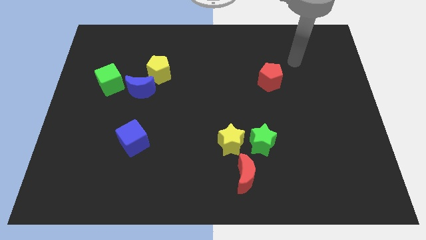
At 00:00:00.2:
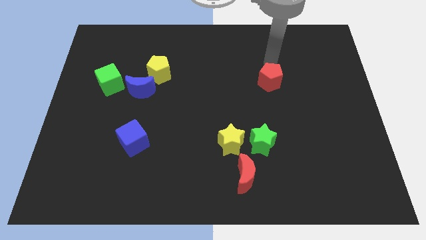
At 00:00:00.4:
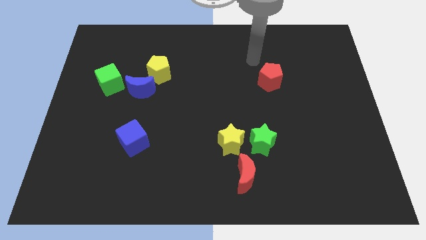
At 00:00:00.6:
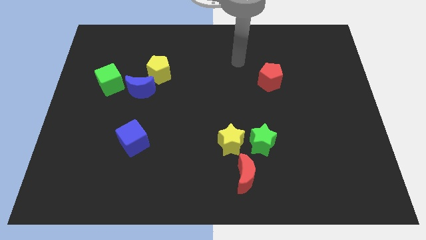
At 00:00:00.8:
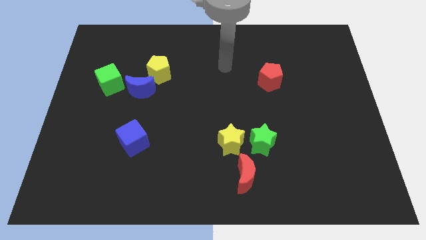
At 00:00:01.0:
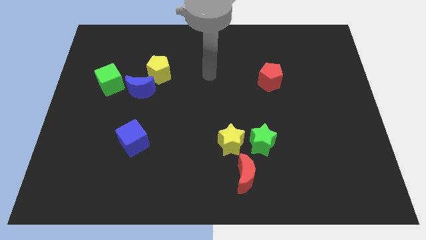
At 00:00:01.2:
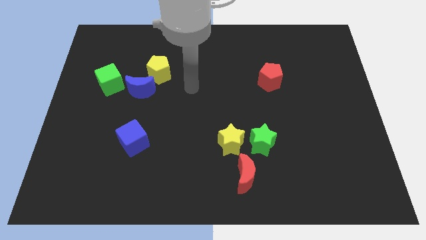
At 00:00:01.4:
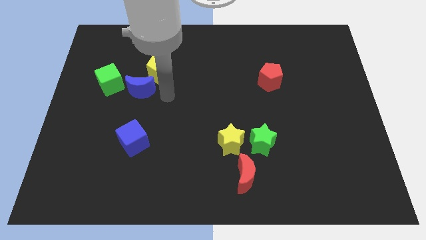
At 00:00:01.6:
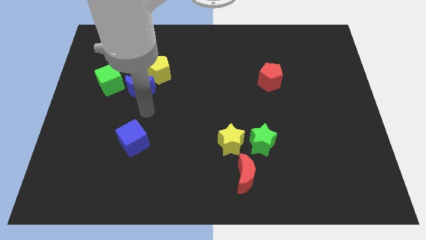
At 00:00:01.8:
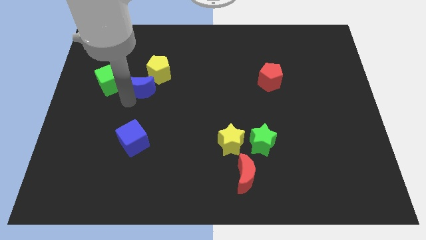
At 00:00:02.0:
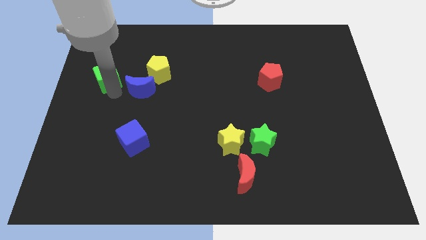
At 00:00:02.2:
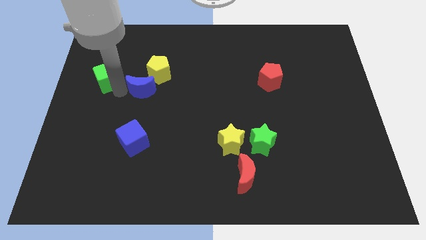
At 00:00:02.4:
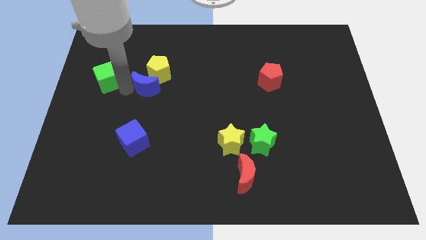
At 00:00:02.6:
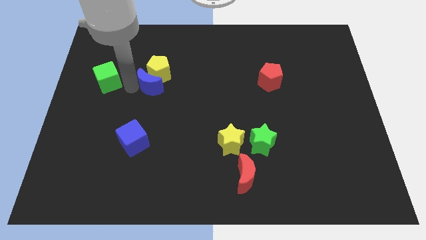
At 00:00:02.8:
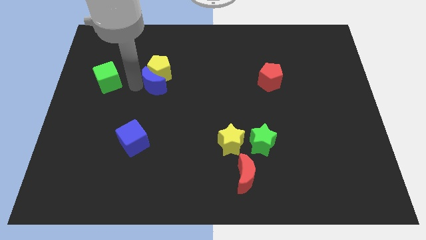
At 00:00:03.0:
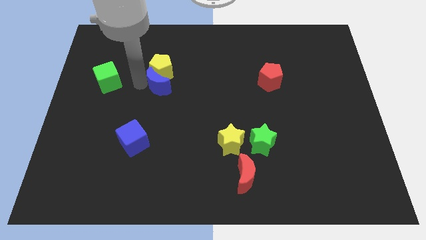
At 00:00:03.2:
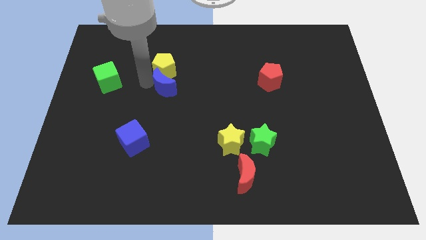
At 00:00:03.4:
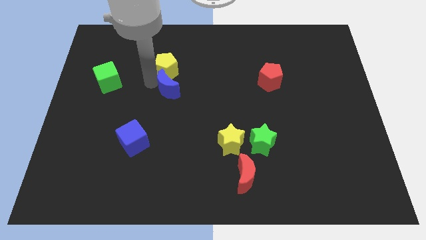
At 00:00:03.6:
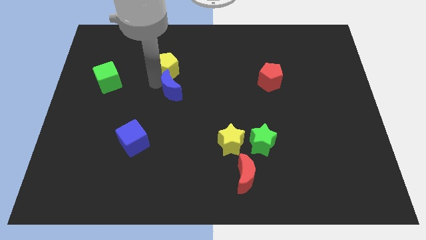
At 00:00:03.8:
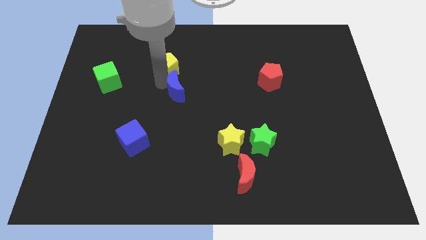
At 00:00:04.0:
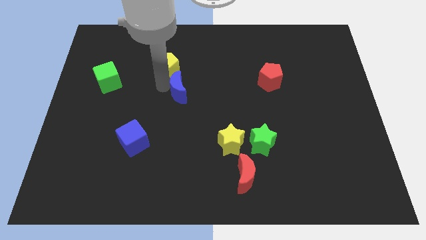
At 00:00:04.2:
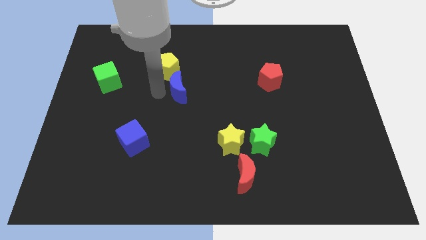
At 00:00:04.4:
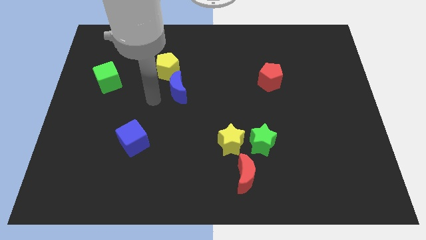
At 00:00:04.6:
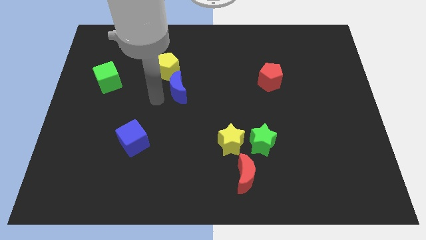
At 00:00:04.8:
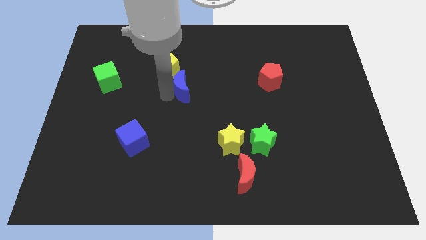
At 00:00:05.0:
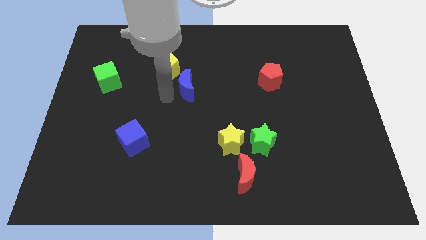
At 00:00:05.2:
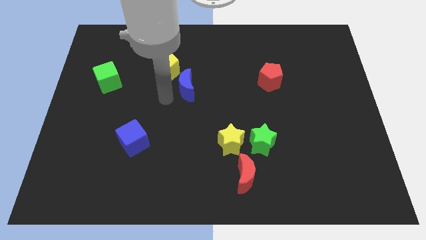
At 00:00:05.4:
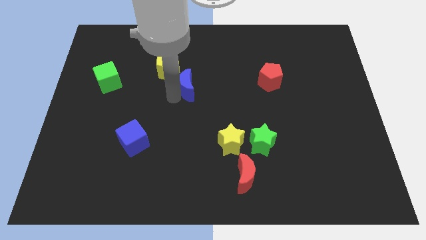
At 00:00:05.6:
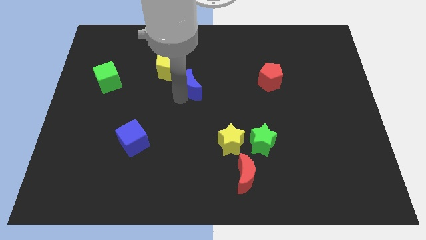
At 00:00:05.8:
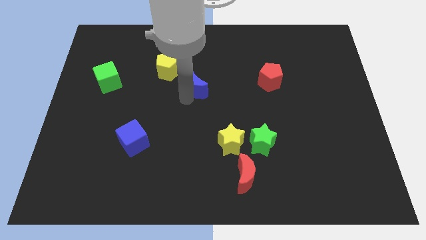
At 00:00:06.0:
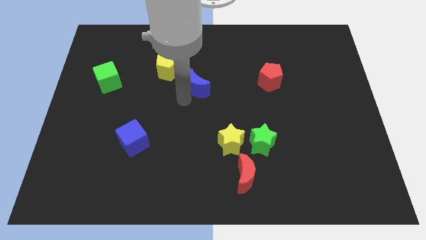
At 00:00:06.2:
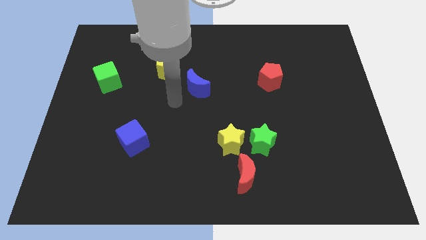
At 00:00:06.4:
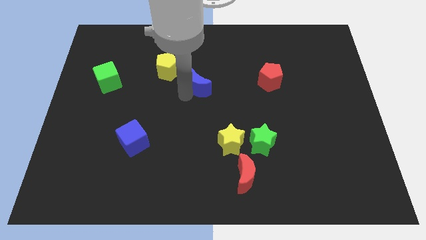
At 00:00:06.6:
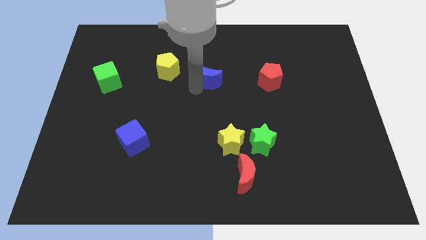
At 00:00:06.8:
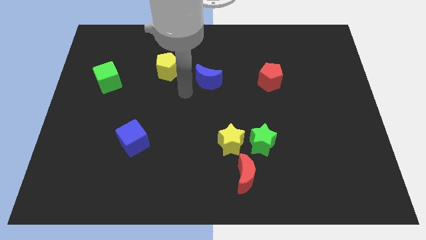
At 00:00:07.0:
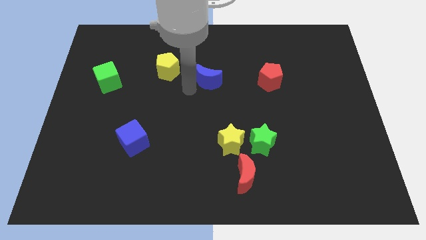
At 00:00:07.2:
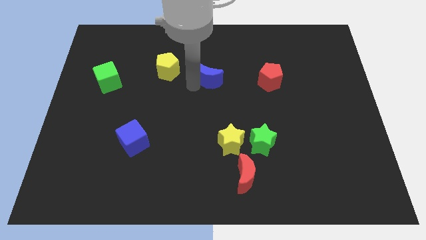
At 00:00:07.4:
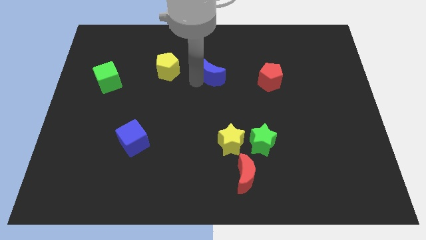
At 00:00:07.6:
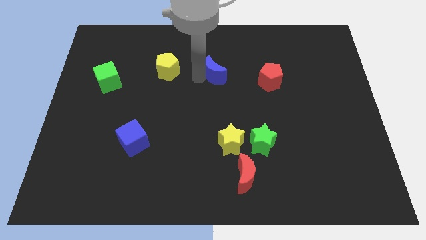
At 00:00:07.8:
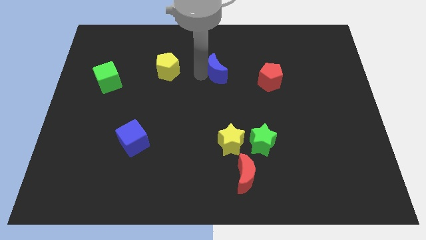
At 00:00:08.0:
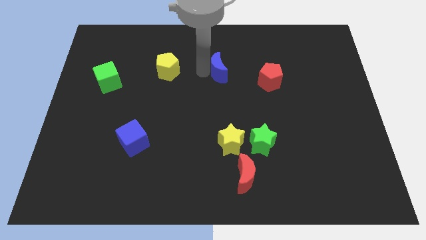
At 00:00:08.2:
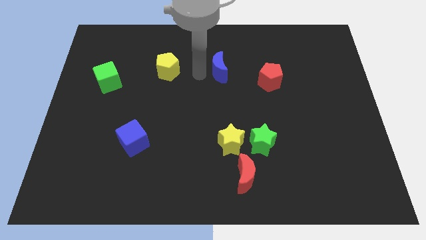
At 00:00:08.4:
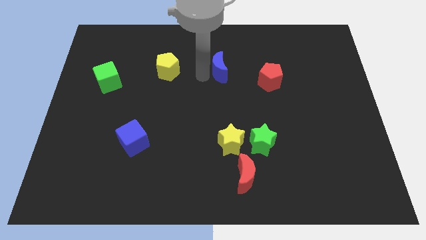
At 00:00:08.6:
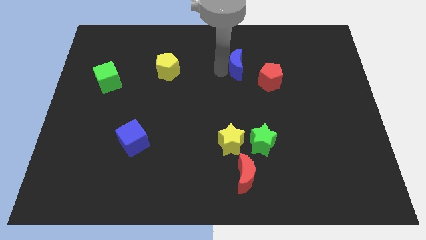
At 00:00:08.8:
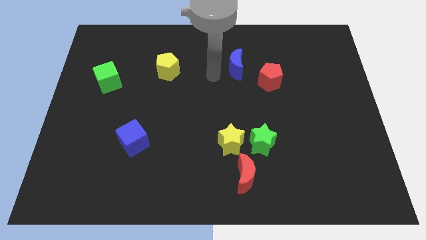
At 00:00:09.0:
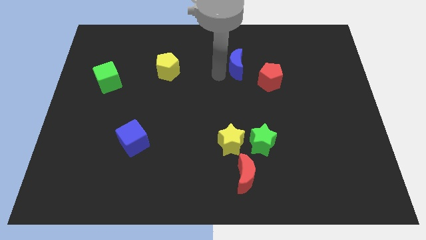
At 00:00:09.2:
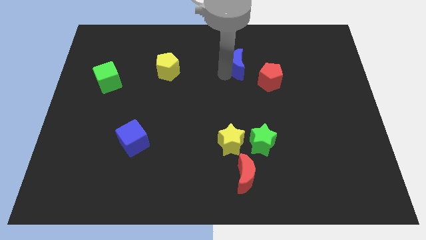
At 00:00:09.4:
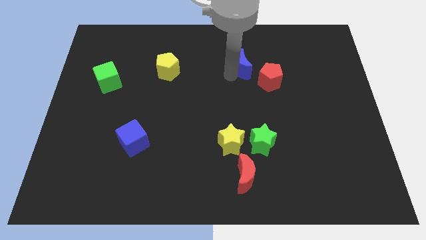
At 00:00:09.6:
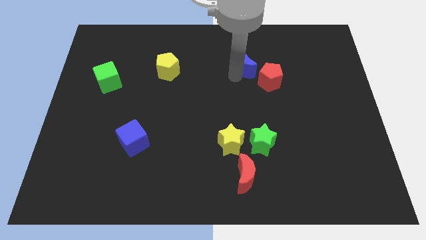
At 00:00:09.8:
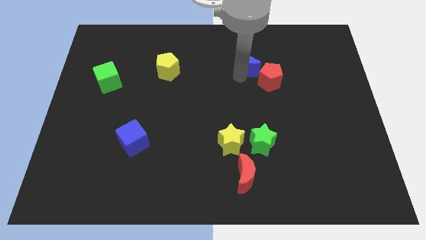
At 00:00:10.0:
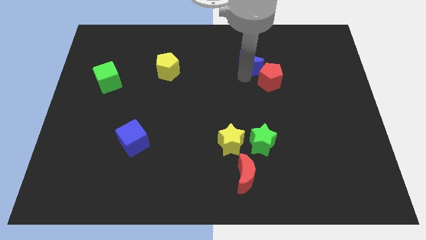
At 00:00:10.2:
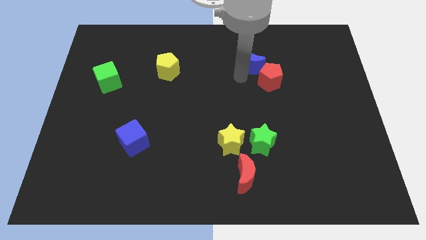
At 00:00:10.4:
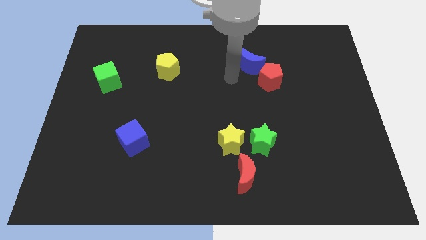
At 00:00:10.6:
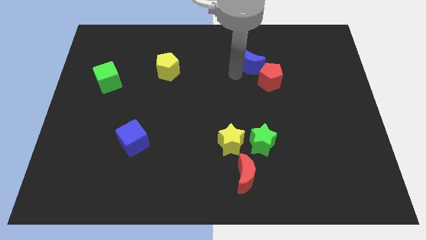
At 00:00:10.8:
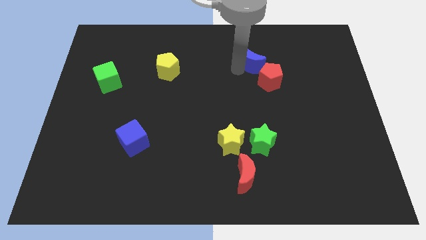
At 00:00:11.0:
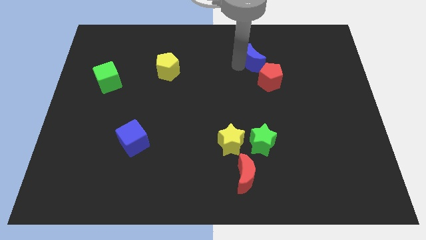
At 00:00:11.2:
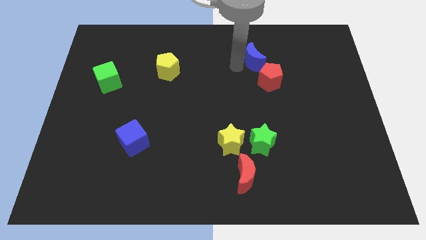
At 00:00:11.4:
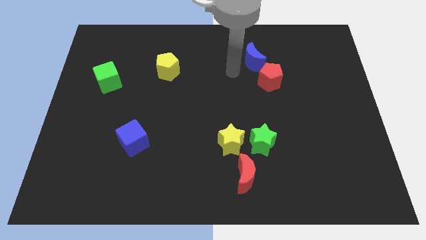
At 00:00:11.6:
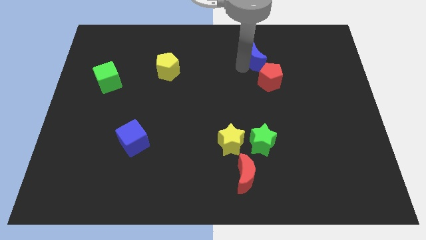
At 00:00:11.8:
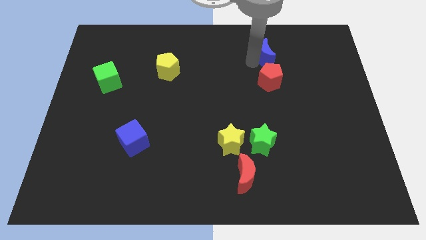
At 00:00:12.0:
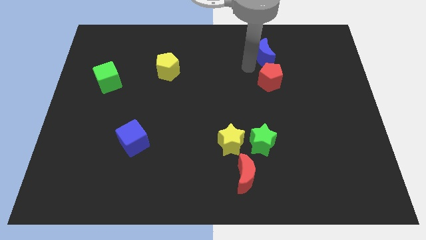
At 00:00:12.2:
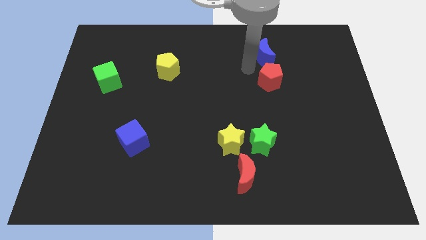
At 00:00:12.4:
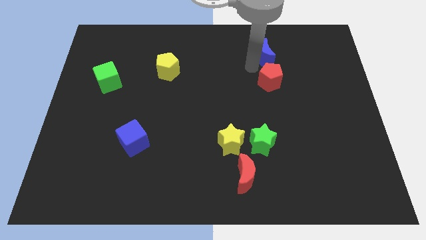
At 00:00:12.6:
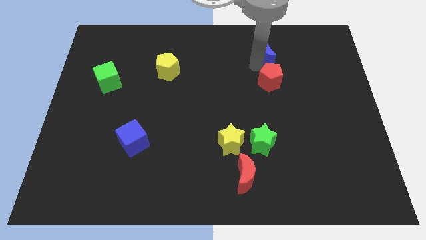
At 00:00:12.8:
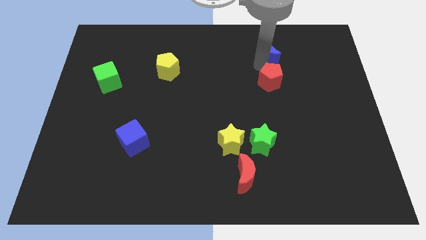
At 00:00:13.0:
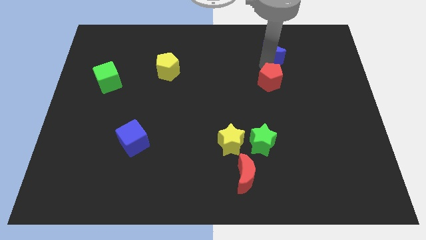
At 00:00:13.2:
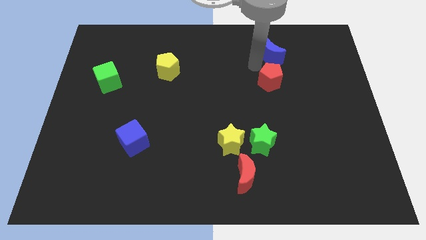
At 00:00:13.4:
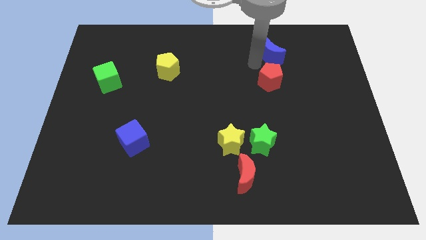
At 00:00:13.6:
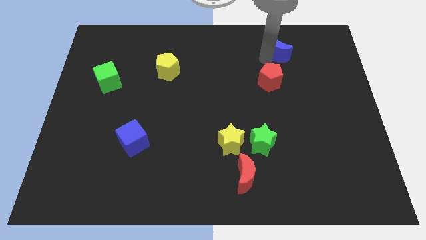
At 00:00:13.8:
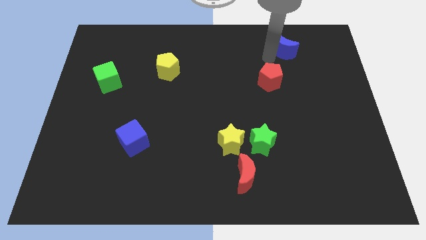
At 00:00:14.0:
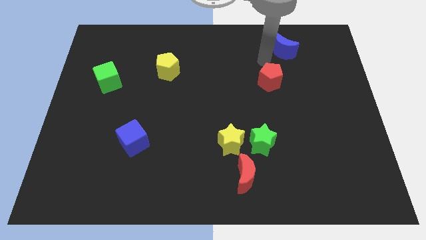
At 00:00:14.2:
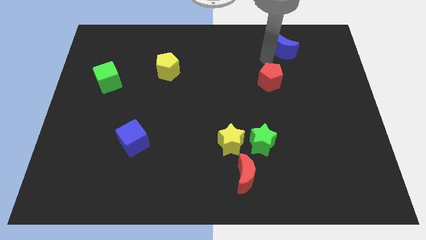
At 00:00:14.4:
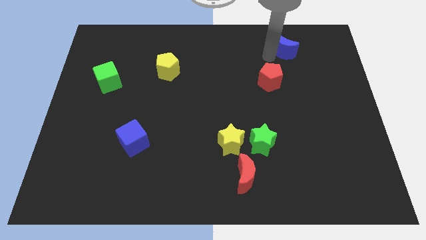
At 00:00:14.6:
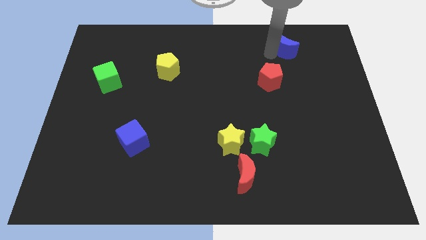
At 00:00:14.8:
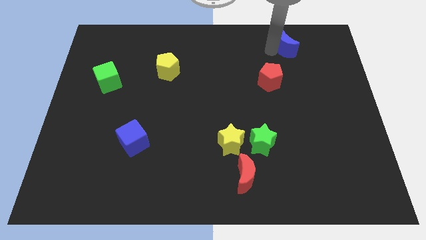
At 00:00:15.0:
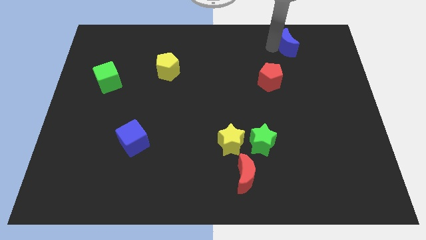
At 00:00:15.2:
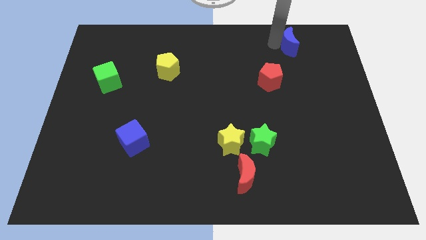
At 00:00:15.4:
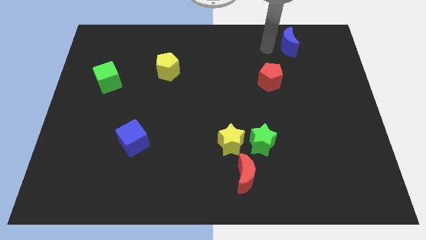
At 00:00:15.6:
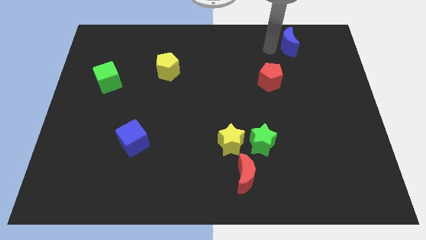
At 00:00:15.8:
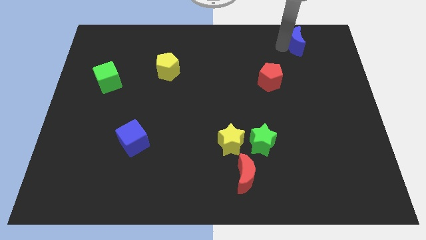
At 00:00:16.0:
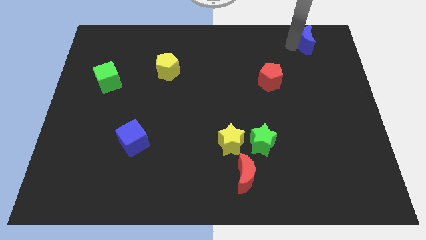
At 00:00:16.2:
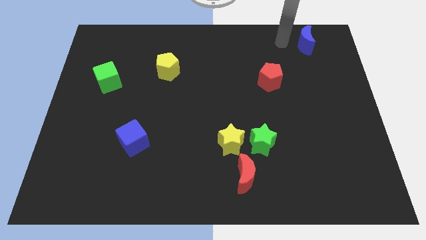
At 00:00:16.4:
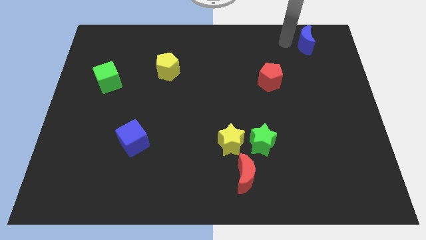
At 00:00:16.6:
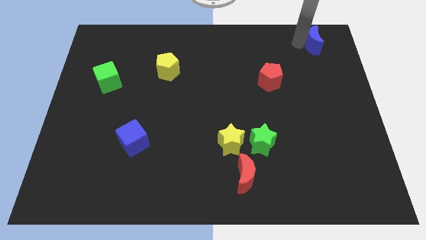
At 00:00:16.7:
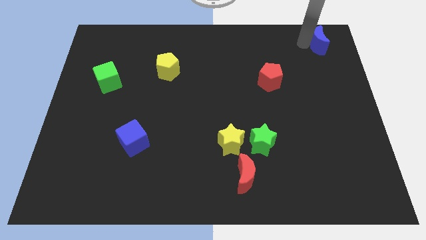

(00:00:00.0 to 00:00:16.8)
move the blue moon to the top right
